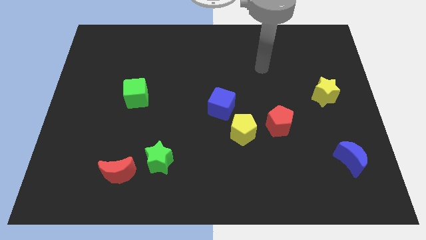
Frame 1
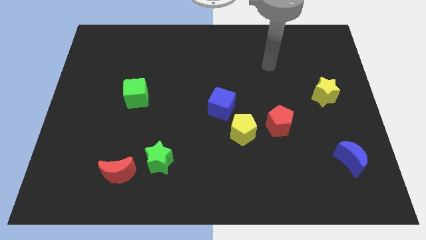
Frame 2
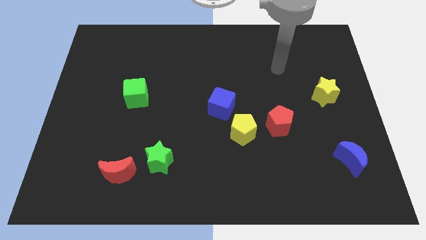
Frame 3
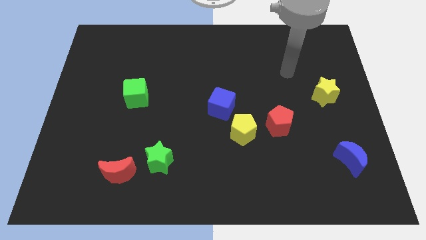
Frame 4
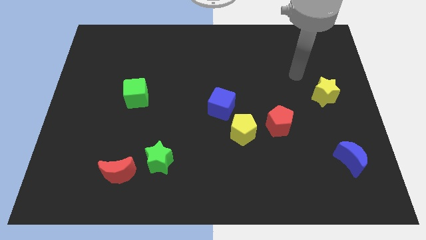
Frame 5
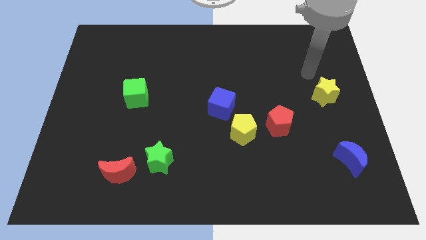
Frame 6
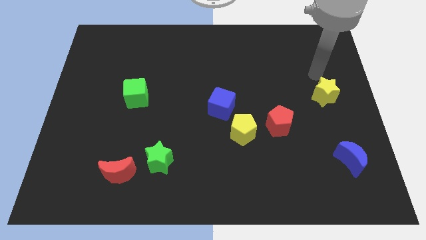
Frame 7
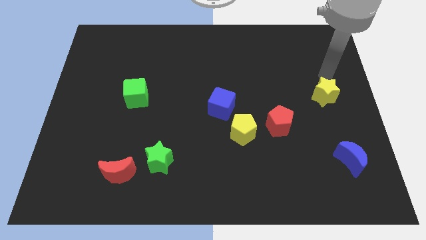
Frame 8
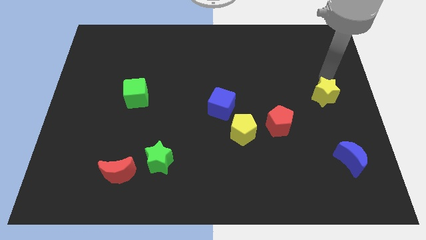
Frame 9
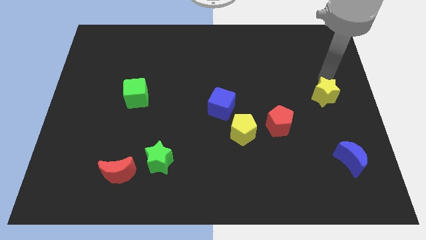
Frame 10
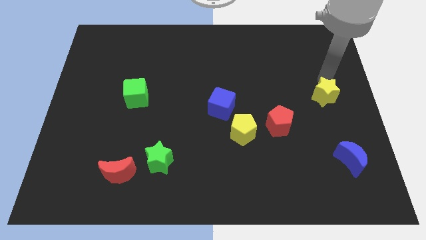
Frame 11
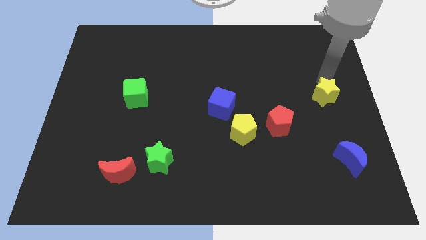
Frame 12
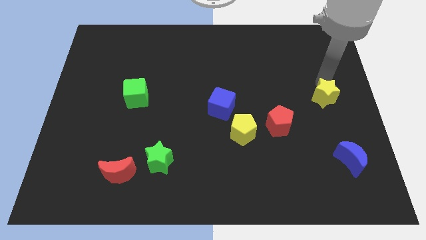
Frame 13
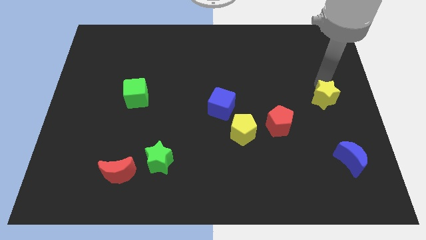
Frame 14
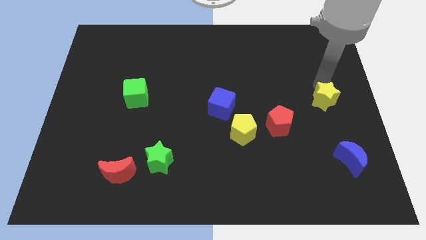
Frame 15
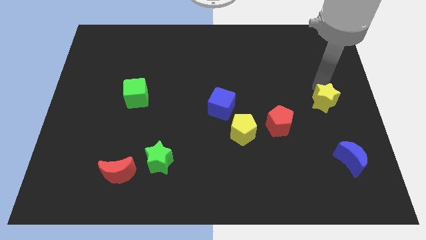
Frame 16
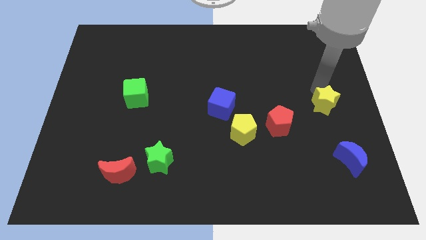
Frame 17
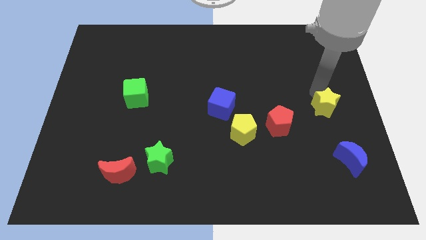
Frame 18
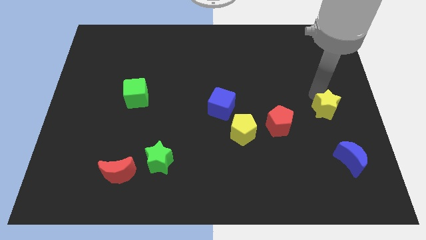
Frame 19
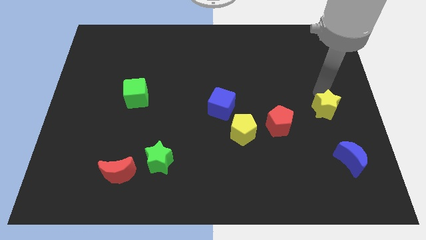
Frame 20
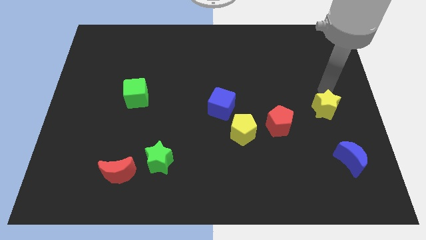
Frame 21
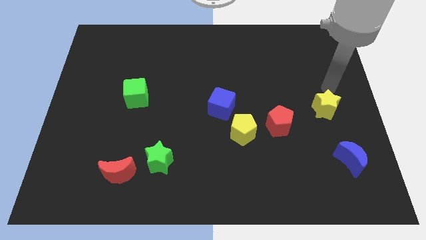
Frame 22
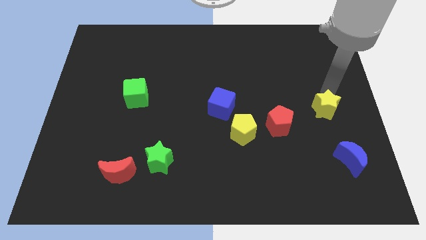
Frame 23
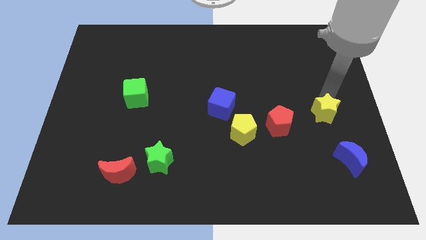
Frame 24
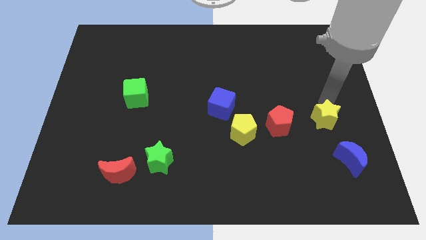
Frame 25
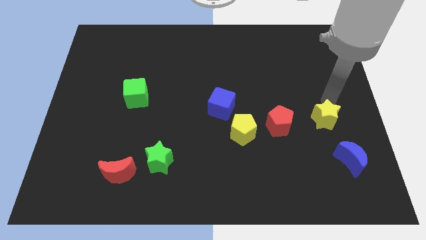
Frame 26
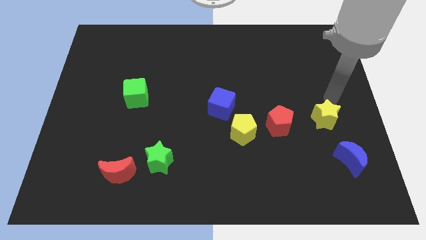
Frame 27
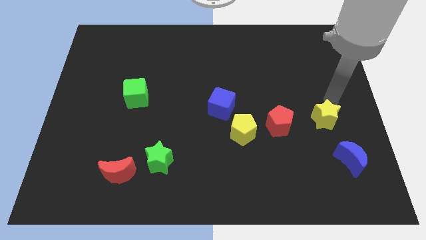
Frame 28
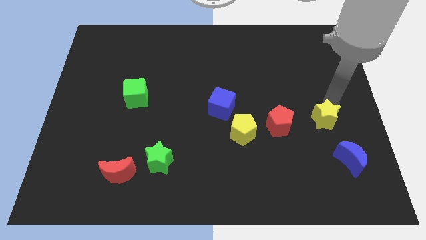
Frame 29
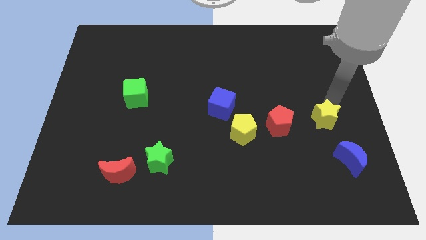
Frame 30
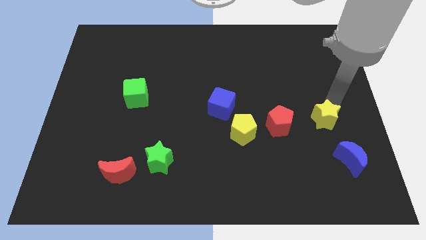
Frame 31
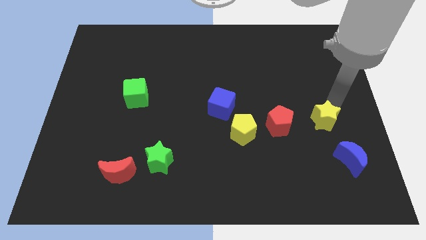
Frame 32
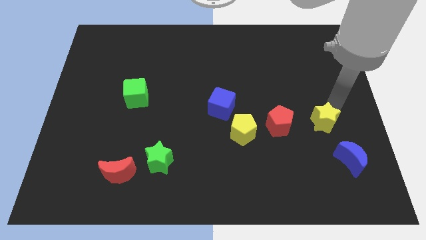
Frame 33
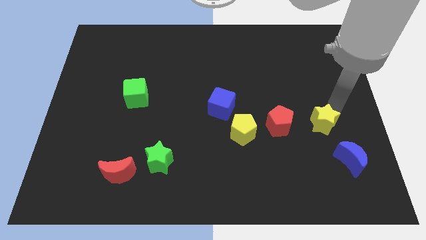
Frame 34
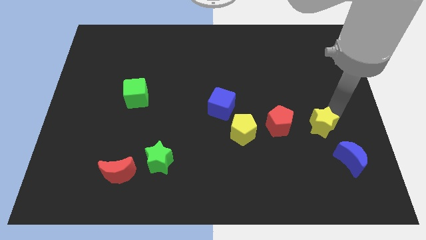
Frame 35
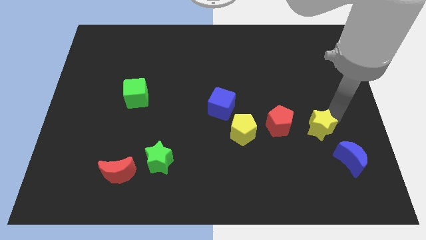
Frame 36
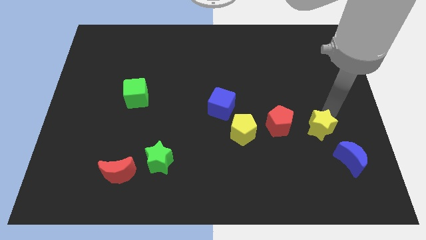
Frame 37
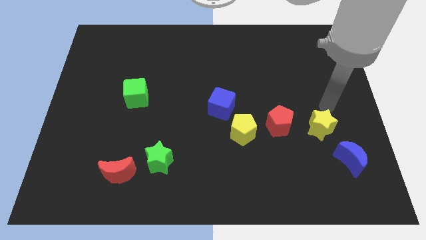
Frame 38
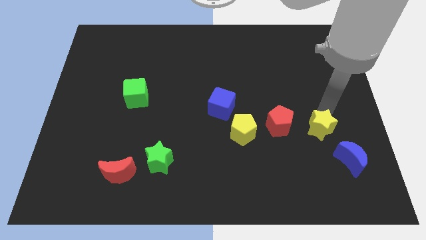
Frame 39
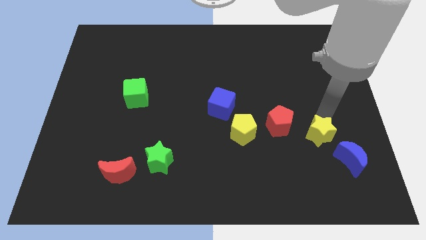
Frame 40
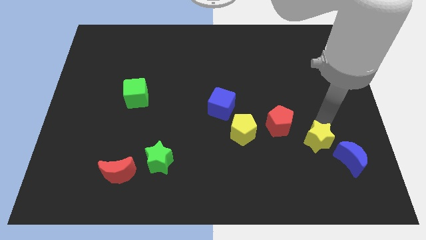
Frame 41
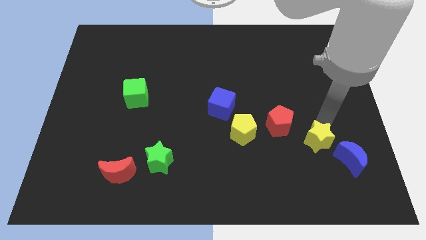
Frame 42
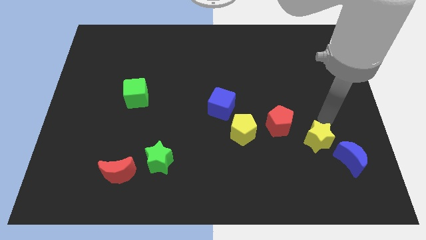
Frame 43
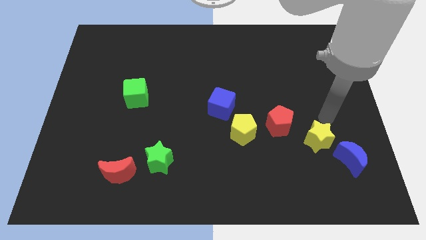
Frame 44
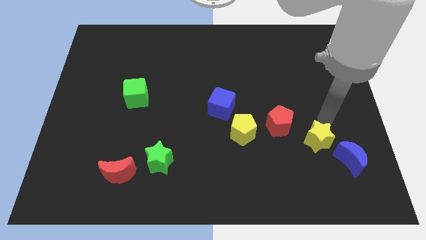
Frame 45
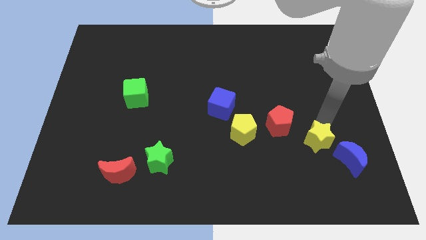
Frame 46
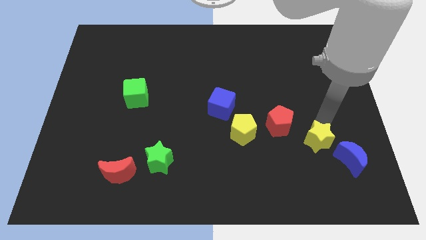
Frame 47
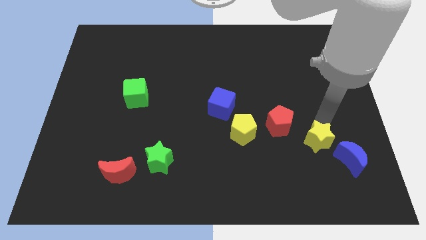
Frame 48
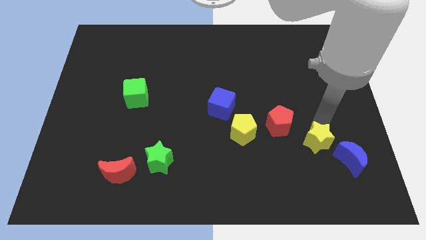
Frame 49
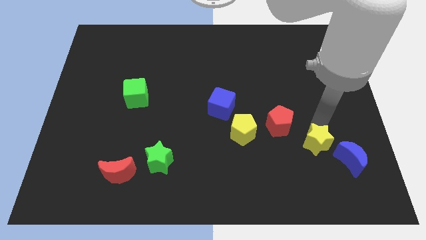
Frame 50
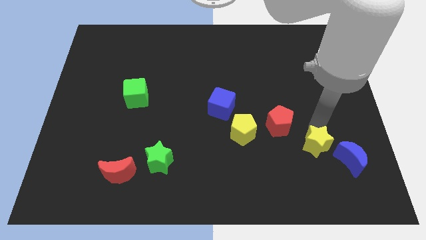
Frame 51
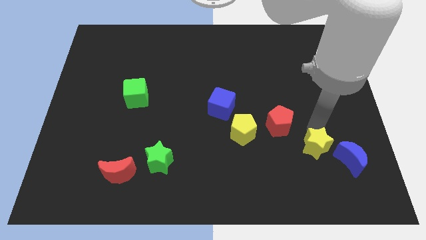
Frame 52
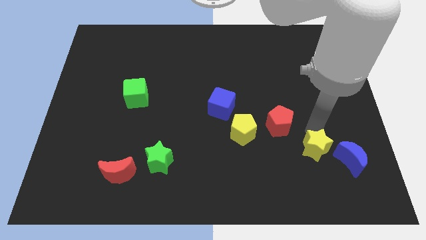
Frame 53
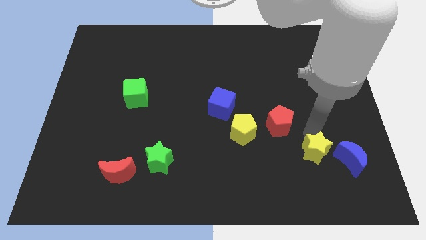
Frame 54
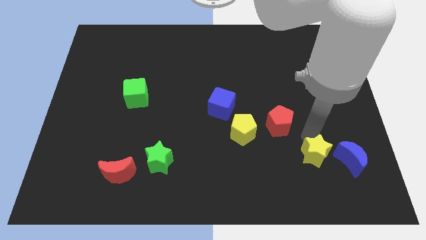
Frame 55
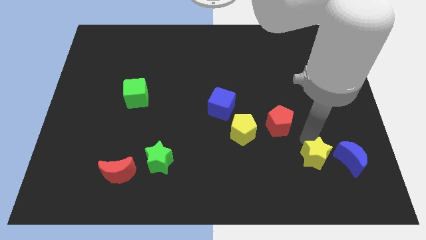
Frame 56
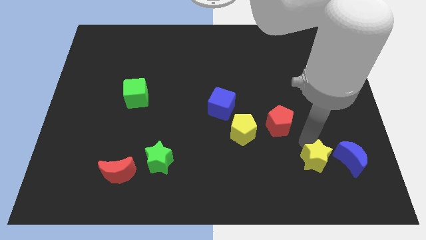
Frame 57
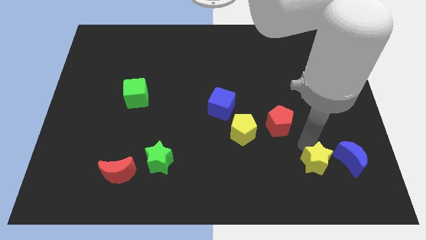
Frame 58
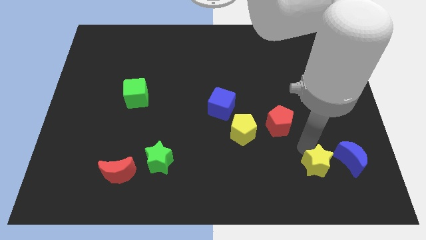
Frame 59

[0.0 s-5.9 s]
move the yellow star to the bottom left of the blue moon

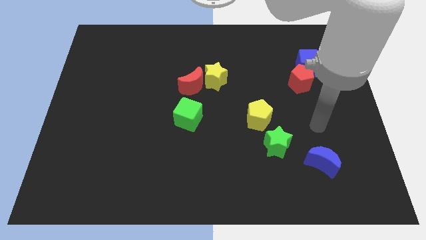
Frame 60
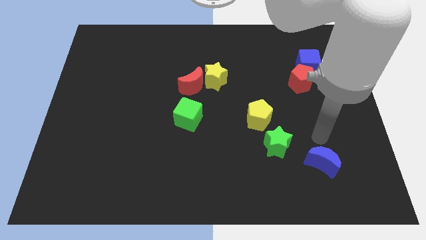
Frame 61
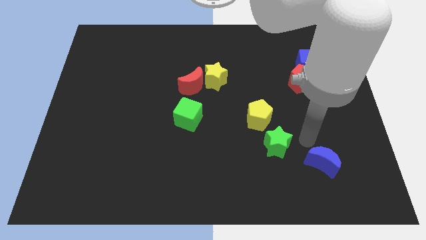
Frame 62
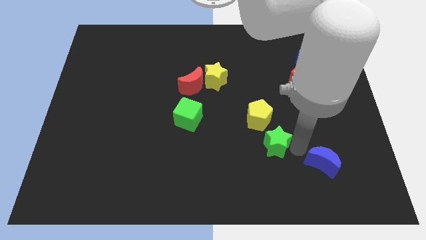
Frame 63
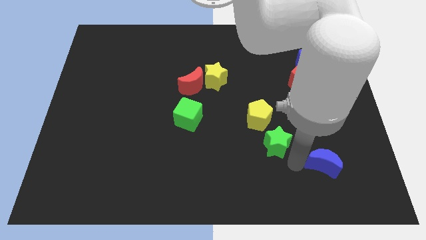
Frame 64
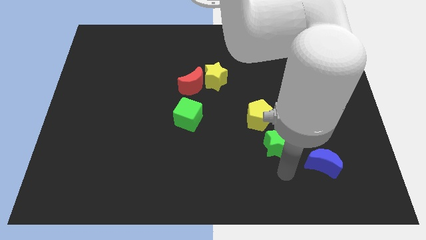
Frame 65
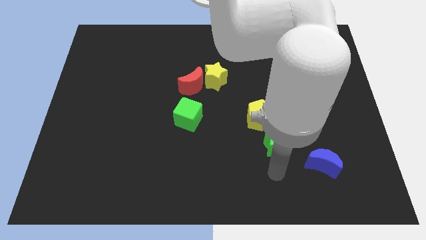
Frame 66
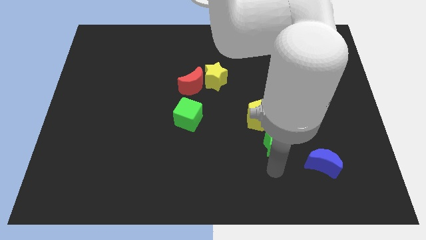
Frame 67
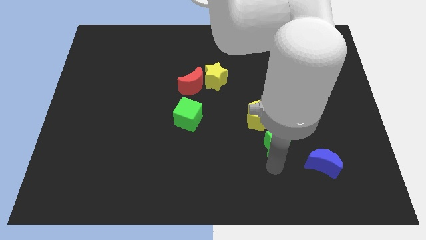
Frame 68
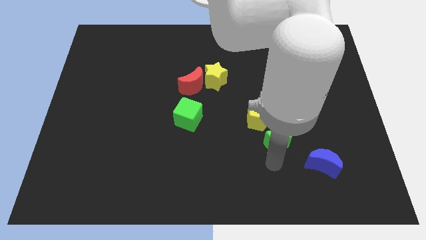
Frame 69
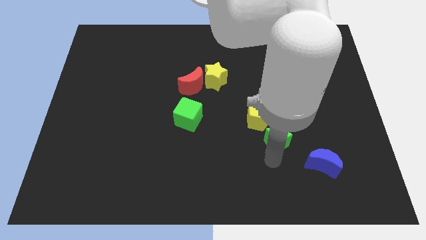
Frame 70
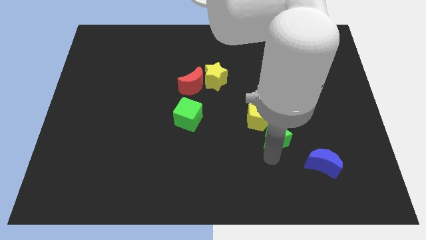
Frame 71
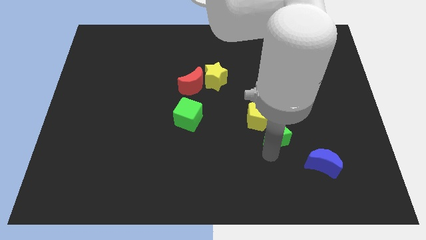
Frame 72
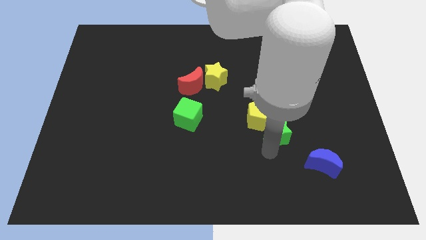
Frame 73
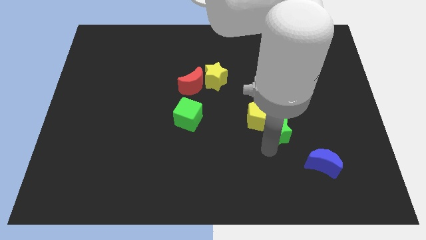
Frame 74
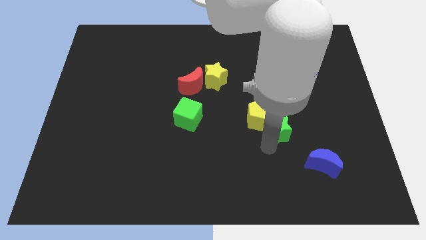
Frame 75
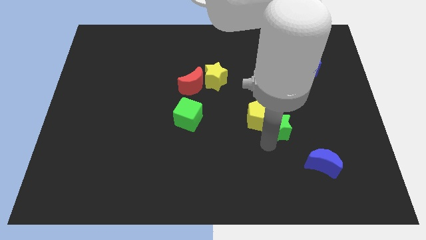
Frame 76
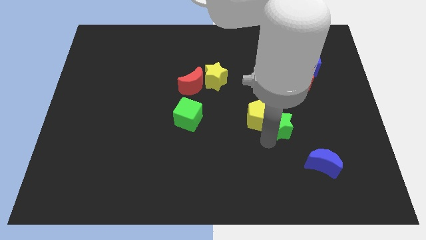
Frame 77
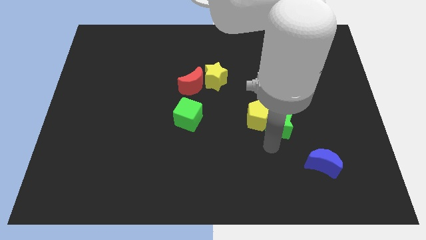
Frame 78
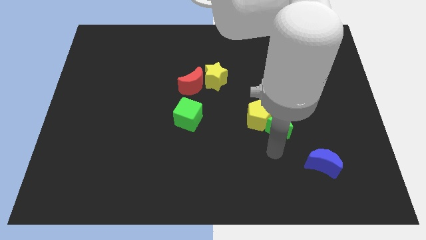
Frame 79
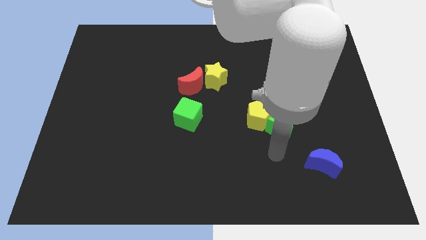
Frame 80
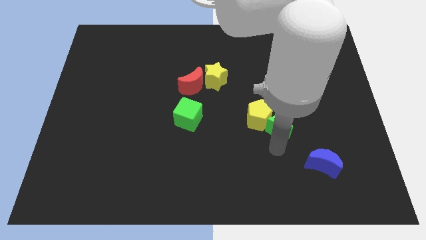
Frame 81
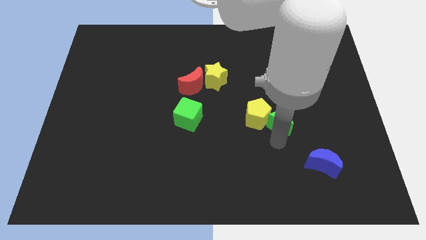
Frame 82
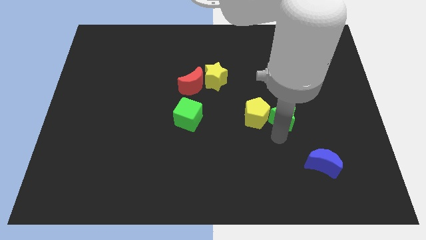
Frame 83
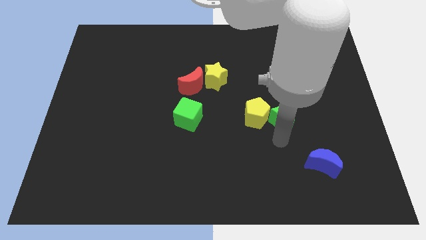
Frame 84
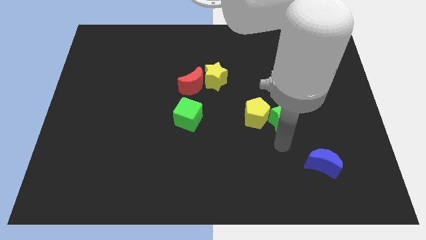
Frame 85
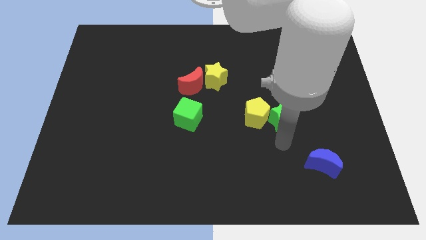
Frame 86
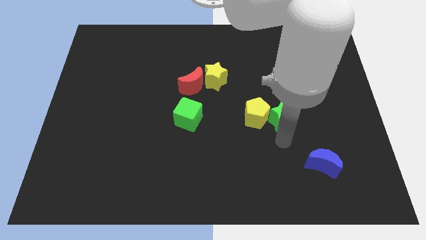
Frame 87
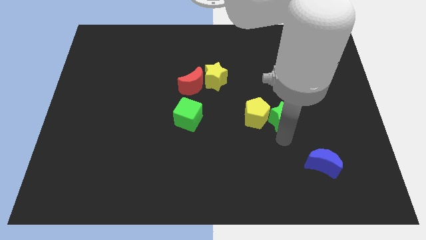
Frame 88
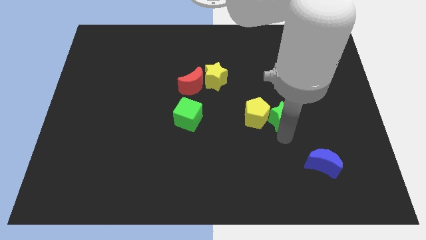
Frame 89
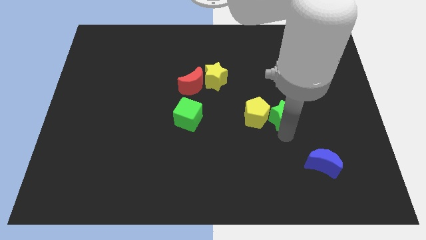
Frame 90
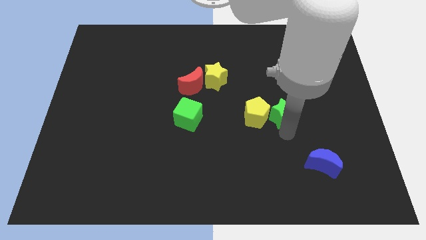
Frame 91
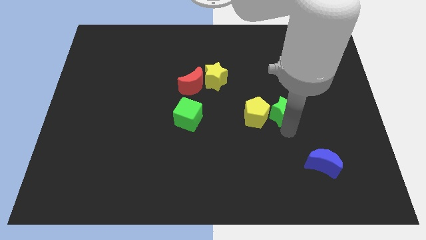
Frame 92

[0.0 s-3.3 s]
push the green star to the bottom left of the red pentagon
